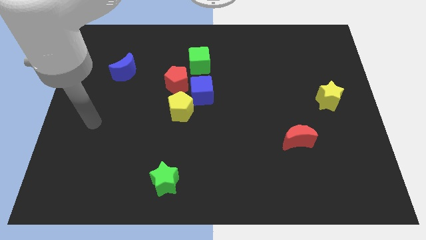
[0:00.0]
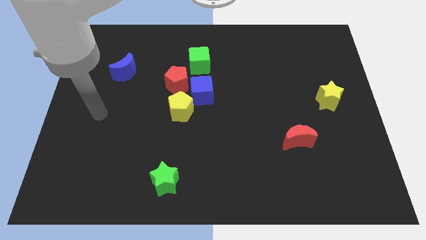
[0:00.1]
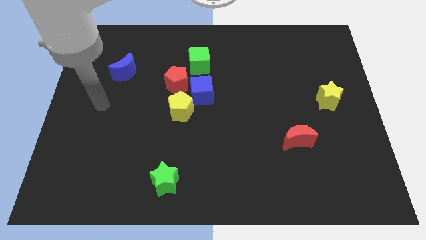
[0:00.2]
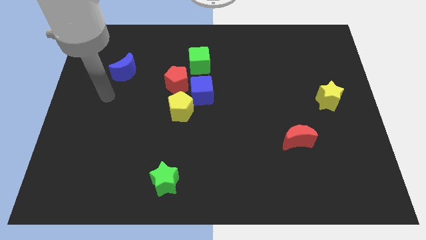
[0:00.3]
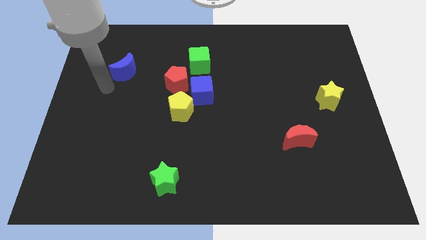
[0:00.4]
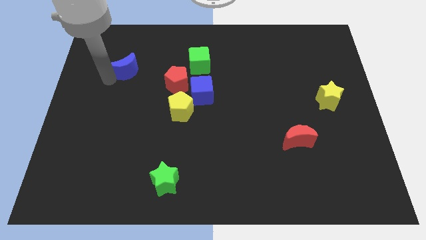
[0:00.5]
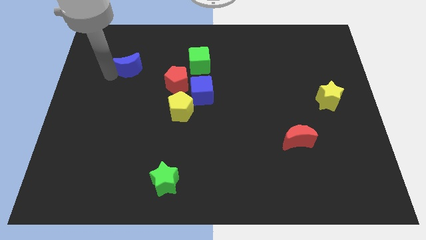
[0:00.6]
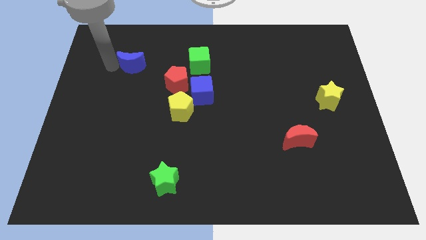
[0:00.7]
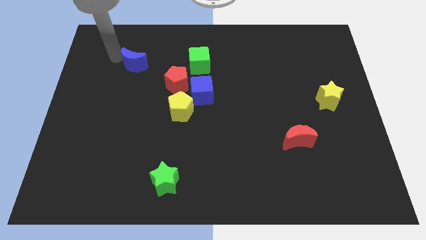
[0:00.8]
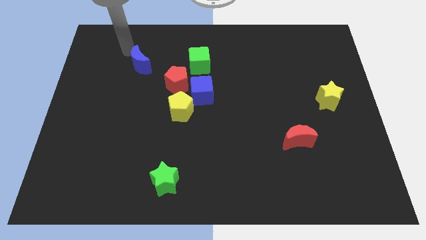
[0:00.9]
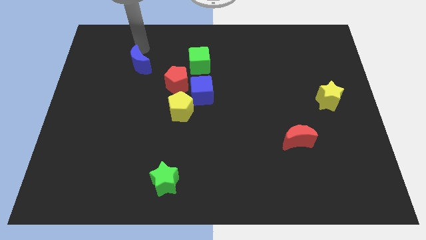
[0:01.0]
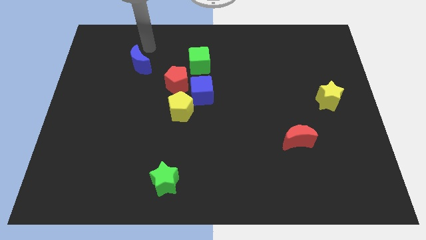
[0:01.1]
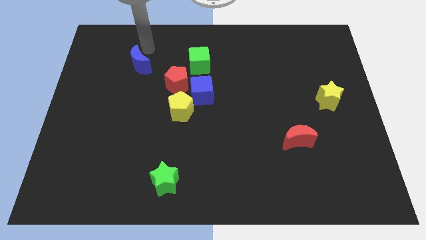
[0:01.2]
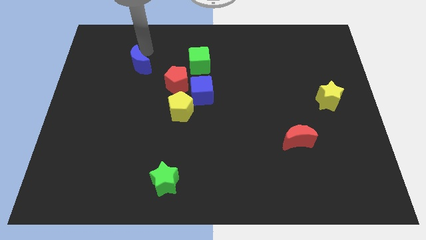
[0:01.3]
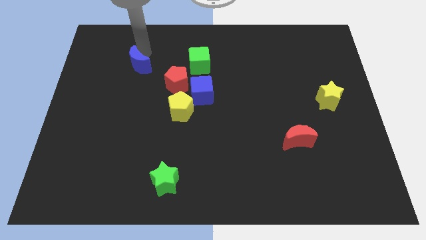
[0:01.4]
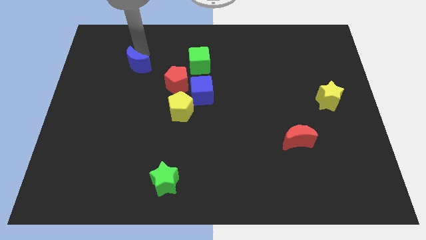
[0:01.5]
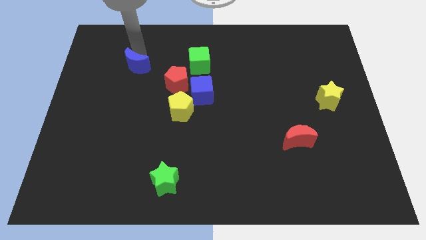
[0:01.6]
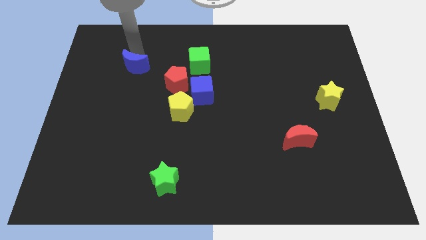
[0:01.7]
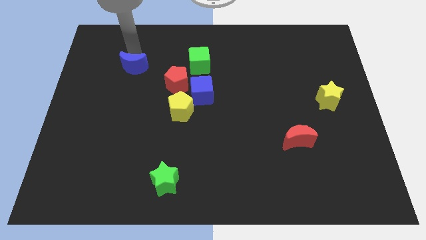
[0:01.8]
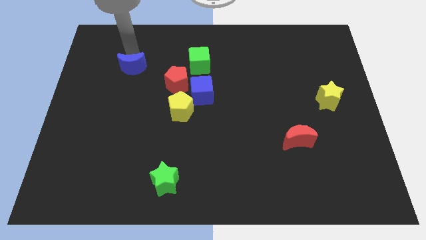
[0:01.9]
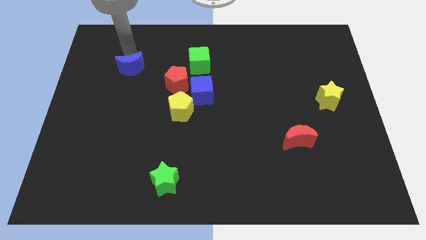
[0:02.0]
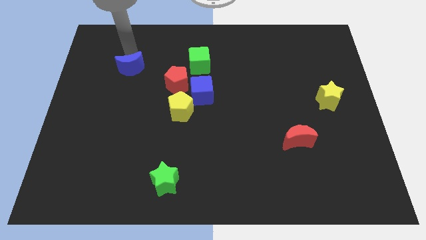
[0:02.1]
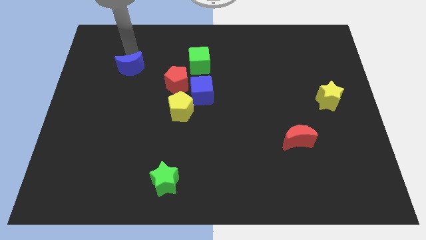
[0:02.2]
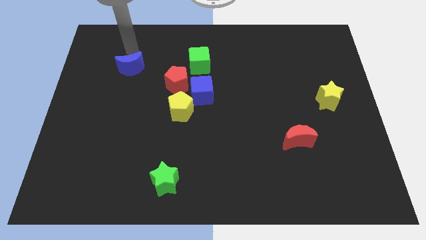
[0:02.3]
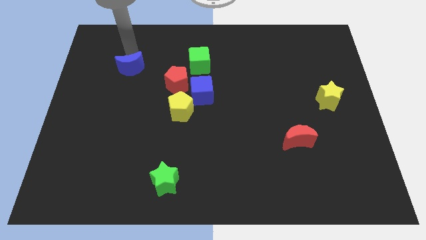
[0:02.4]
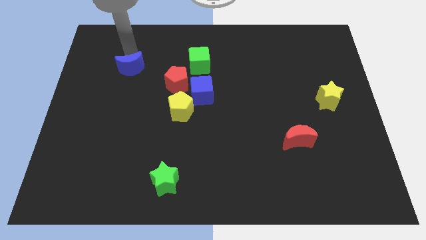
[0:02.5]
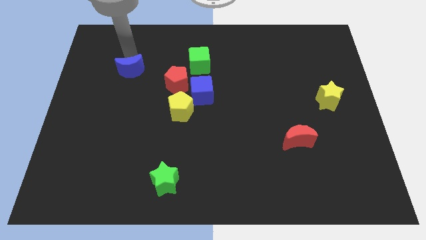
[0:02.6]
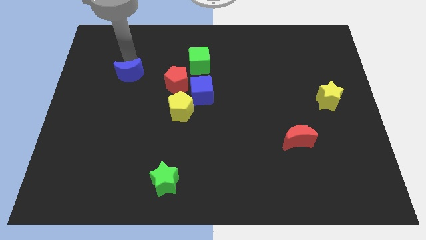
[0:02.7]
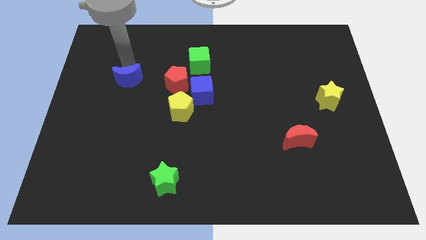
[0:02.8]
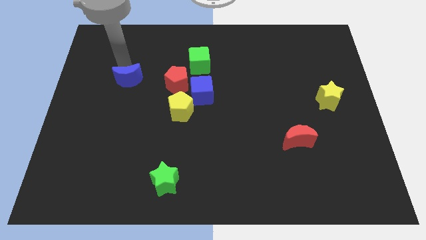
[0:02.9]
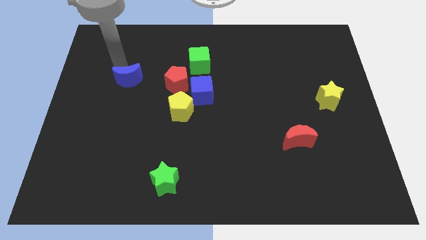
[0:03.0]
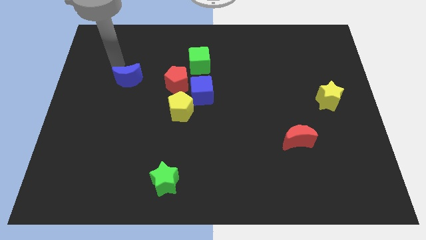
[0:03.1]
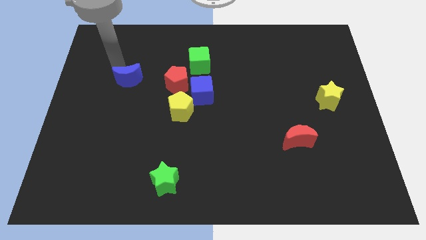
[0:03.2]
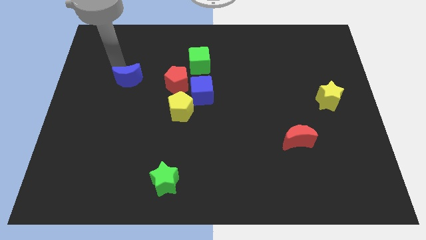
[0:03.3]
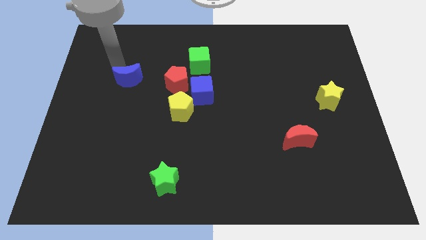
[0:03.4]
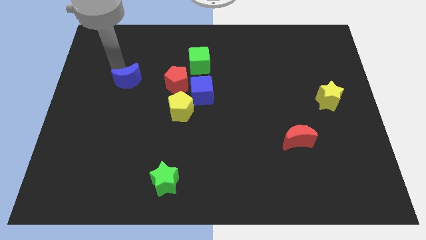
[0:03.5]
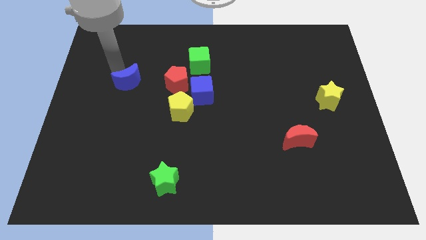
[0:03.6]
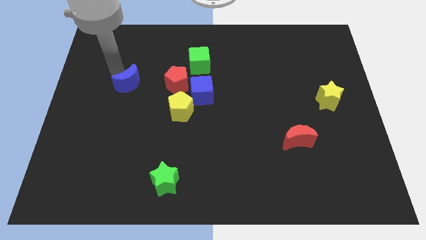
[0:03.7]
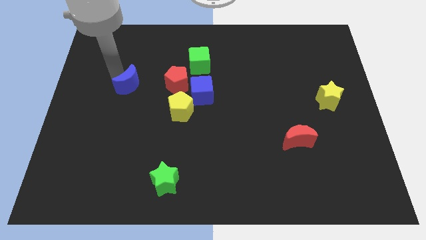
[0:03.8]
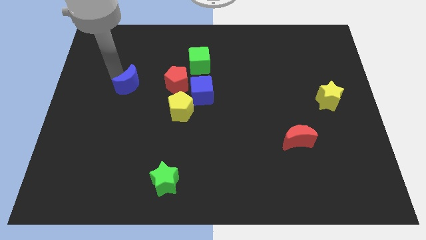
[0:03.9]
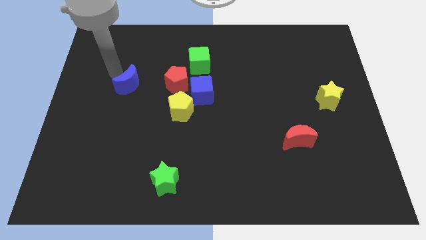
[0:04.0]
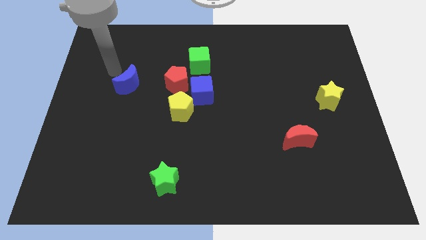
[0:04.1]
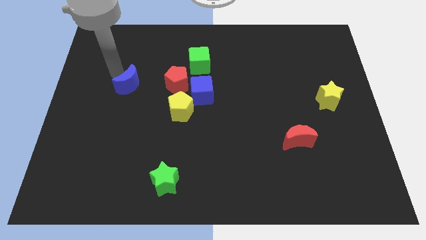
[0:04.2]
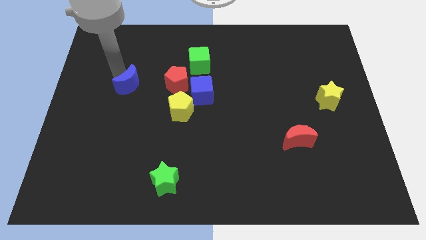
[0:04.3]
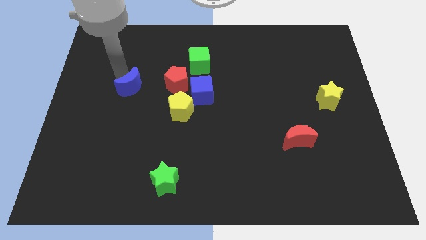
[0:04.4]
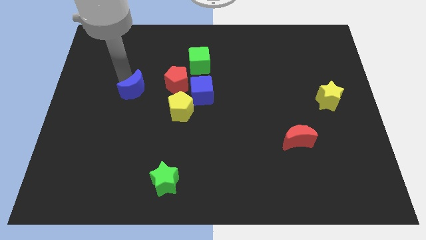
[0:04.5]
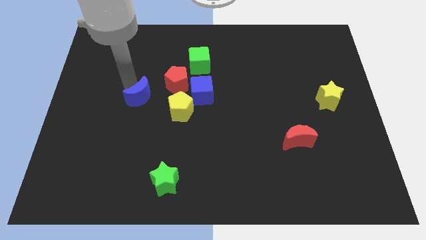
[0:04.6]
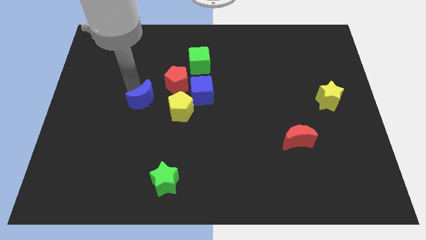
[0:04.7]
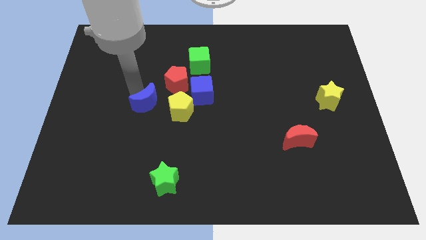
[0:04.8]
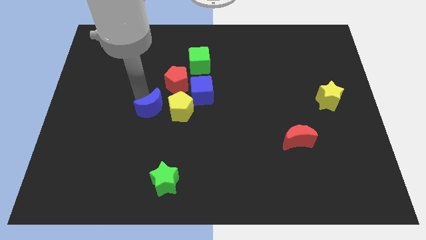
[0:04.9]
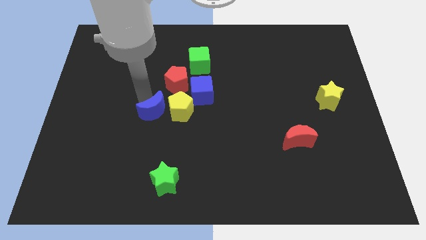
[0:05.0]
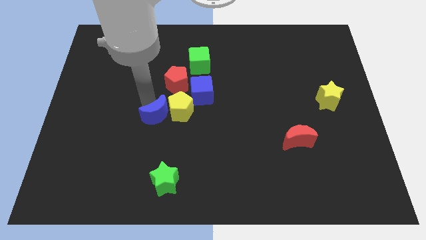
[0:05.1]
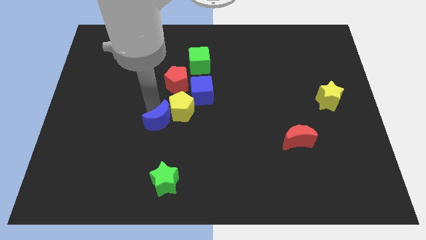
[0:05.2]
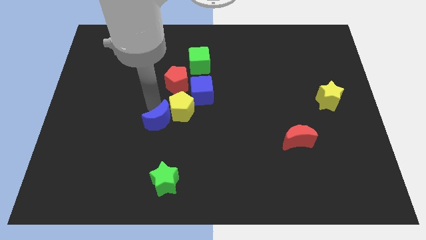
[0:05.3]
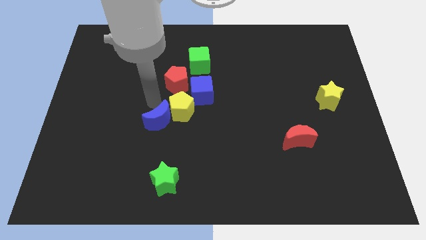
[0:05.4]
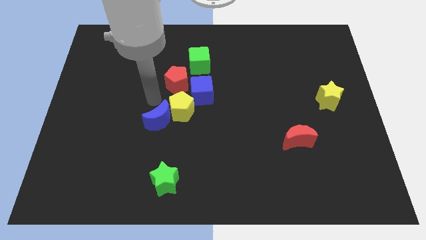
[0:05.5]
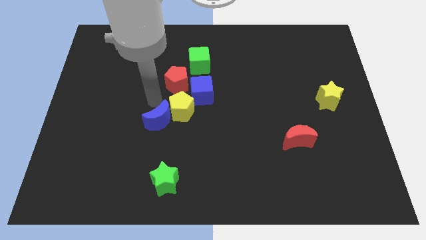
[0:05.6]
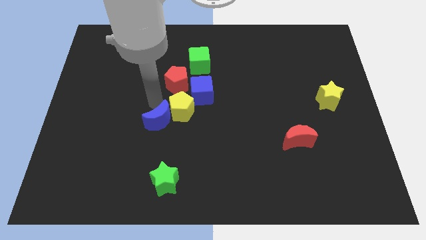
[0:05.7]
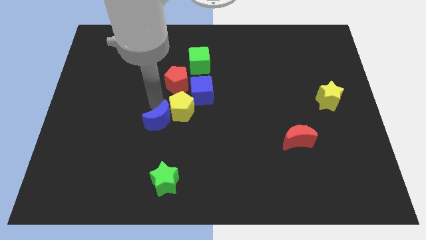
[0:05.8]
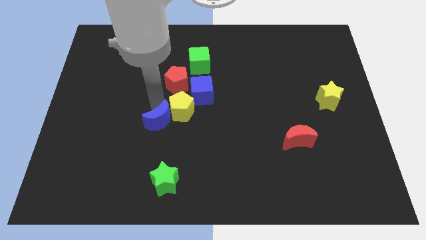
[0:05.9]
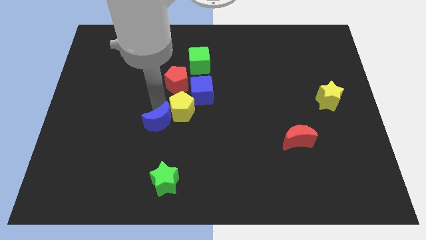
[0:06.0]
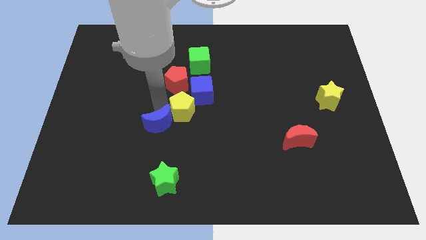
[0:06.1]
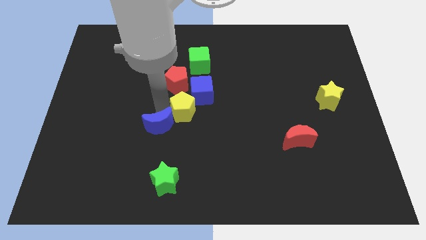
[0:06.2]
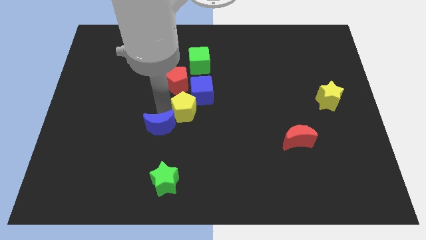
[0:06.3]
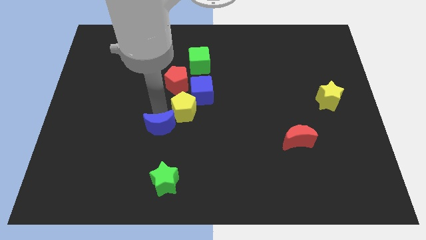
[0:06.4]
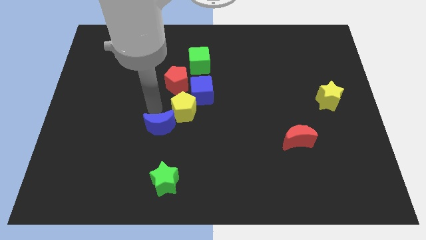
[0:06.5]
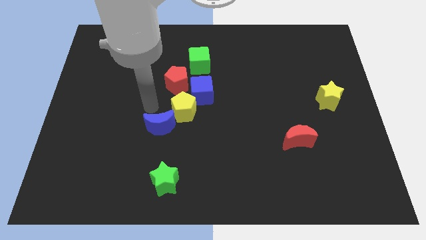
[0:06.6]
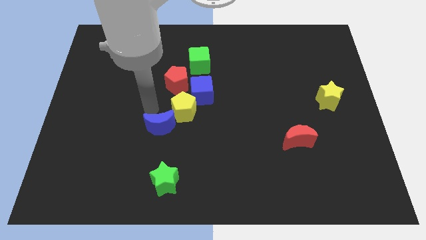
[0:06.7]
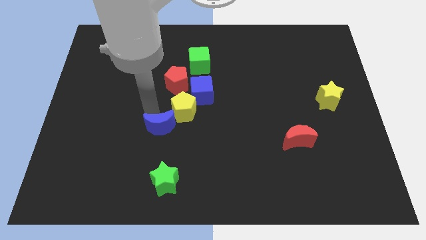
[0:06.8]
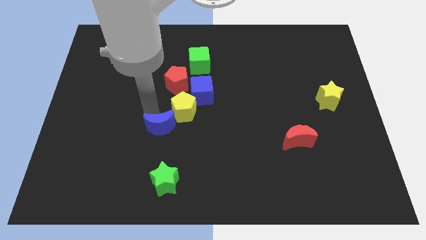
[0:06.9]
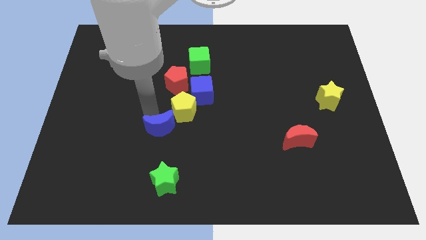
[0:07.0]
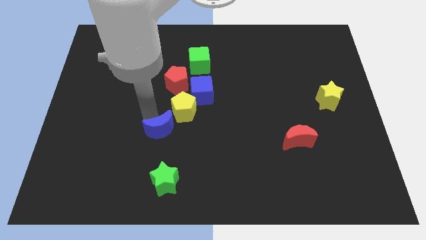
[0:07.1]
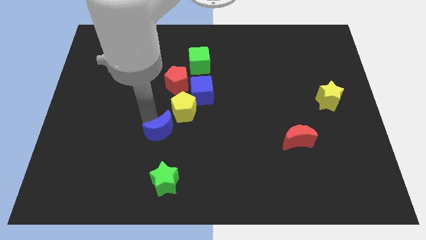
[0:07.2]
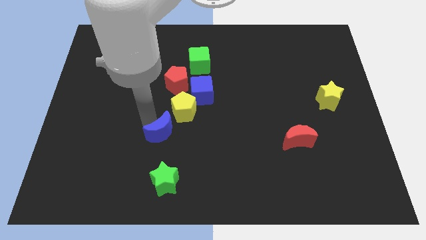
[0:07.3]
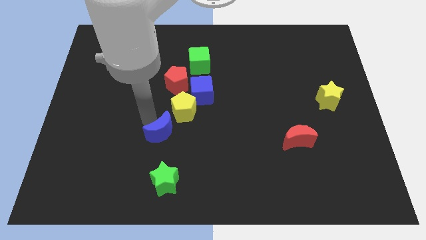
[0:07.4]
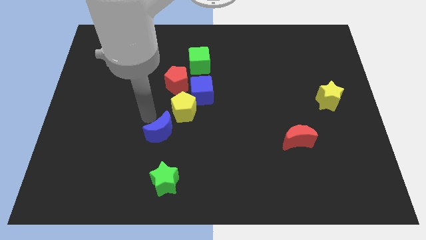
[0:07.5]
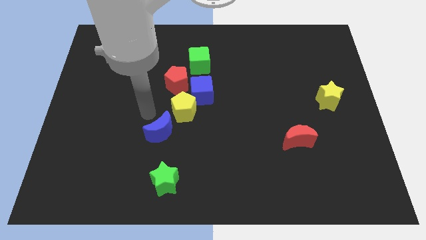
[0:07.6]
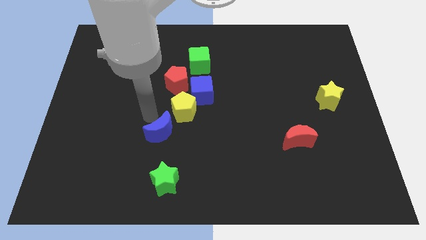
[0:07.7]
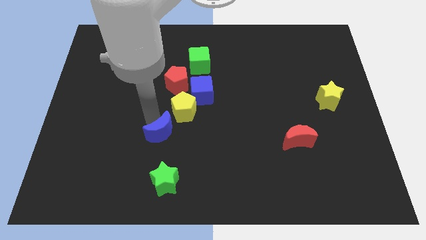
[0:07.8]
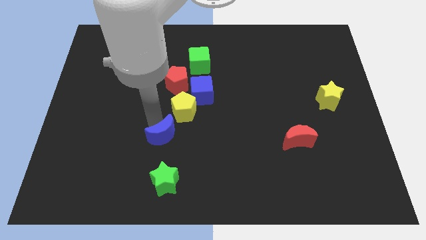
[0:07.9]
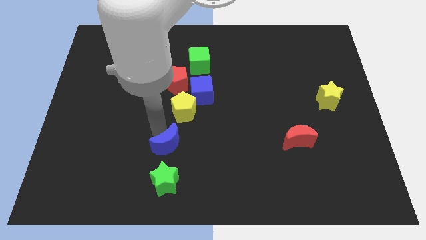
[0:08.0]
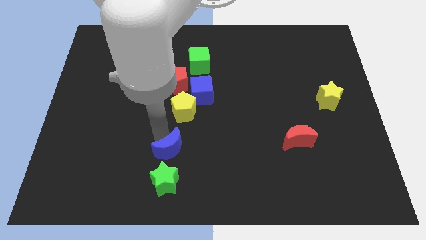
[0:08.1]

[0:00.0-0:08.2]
put the blue moon to the top right of the green star
